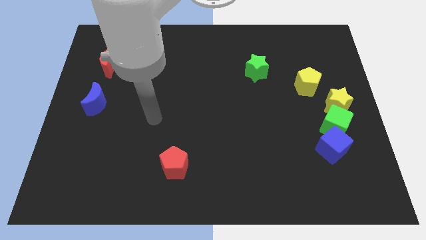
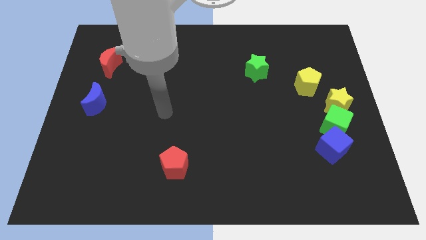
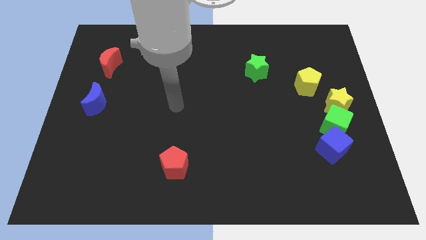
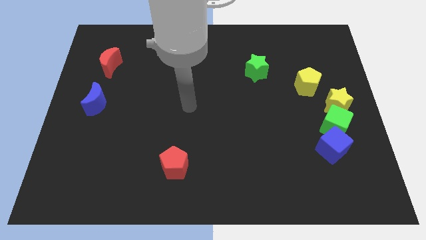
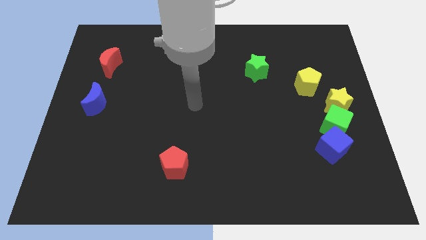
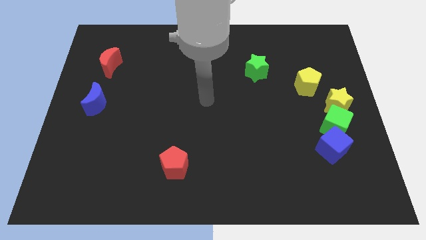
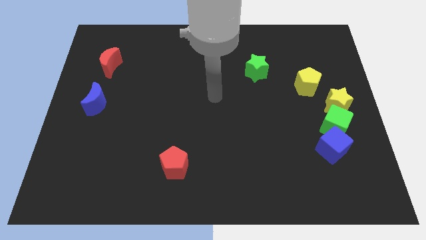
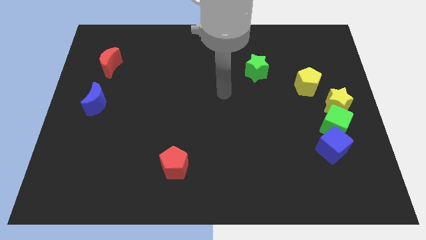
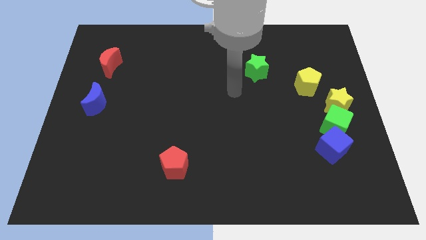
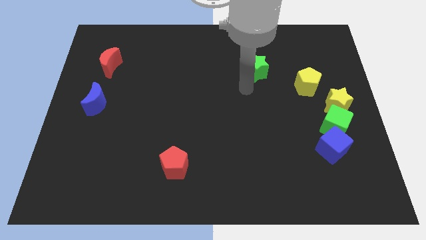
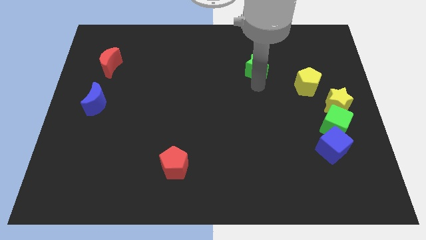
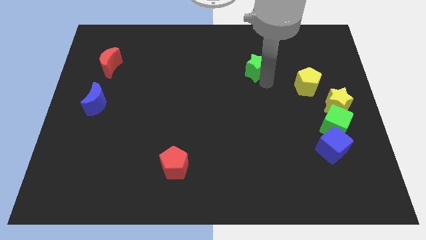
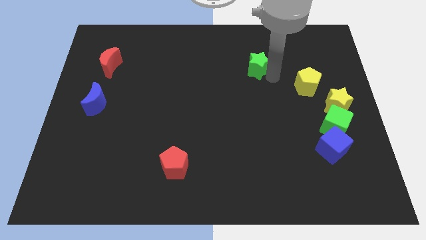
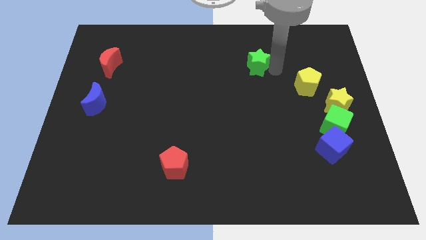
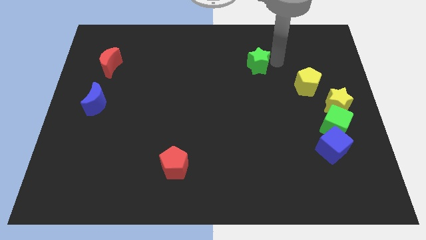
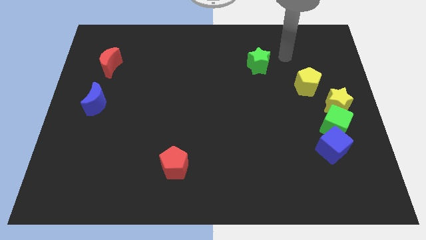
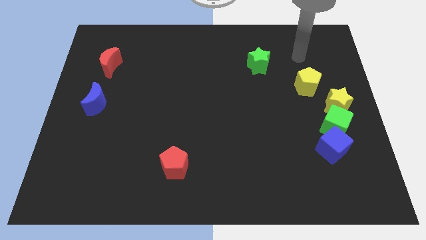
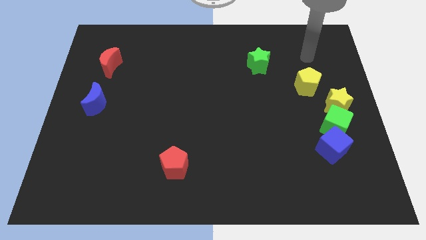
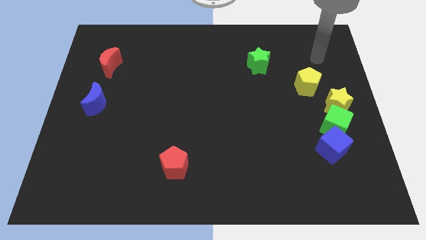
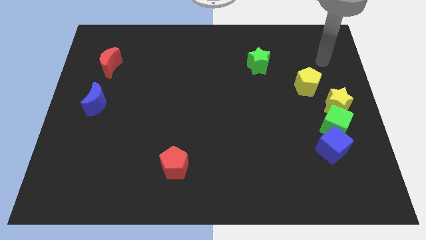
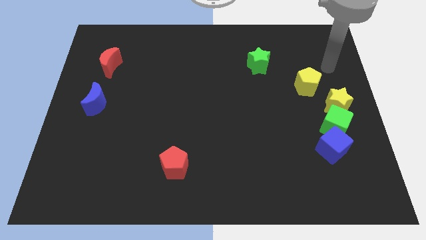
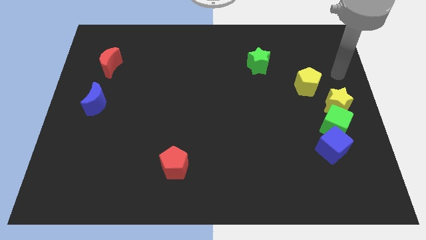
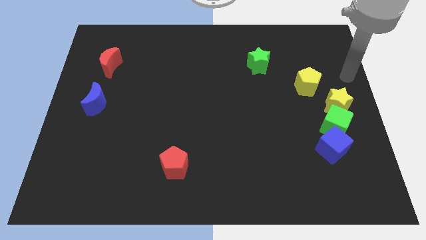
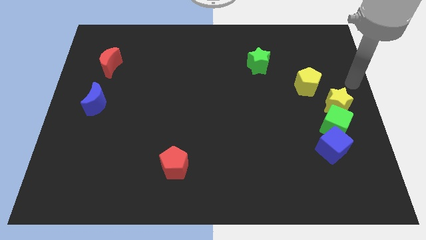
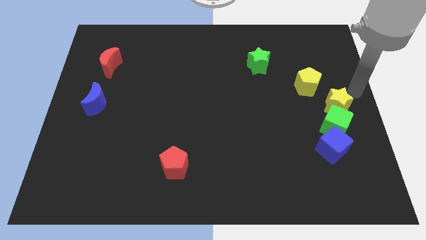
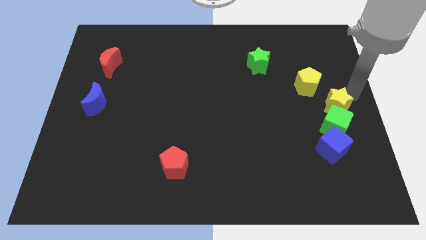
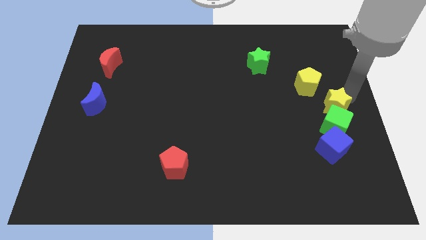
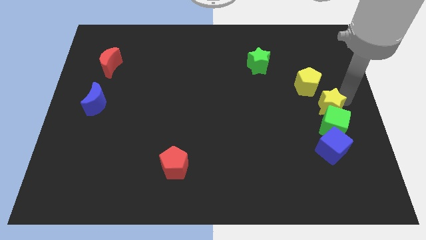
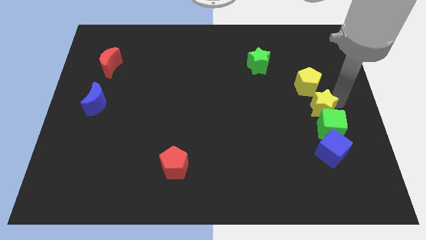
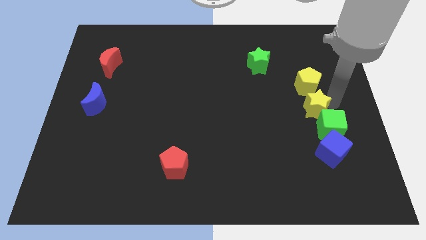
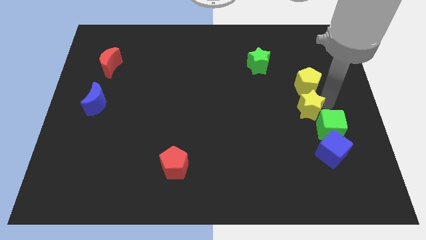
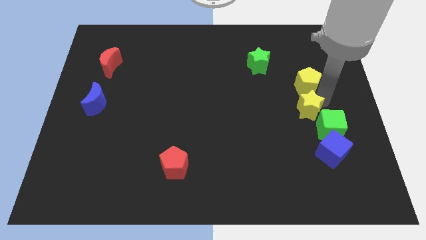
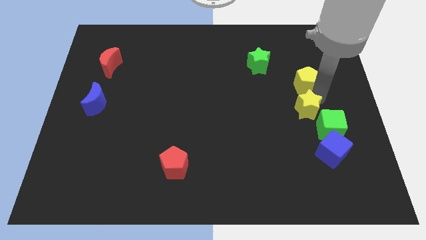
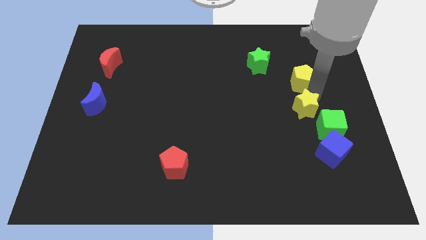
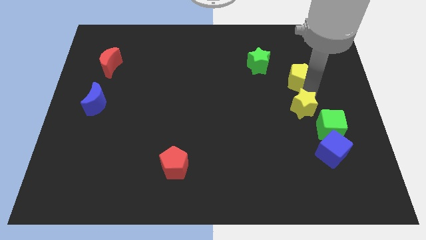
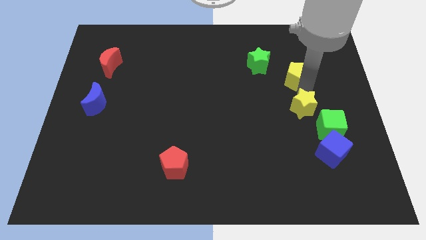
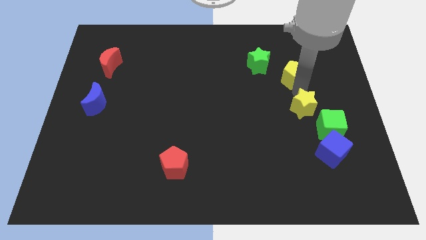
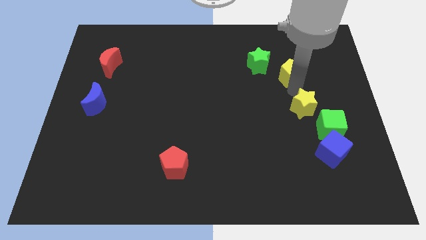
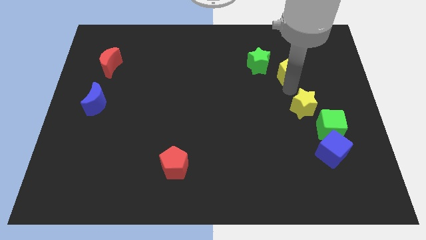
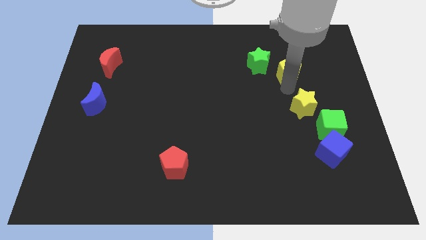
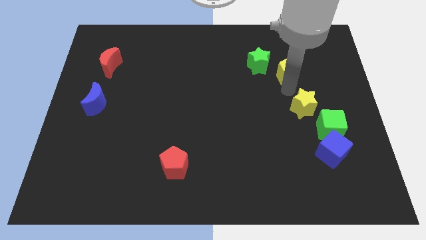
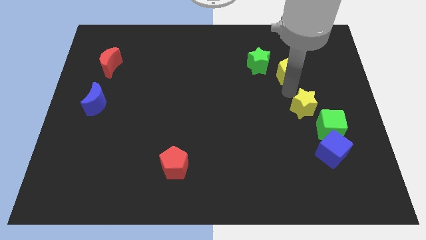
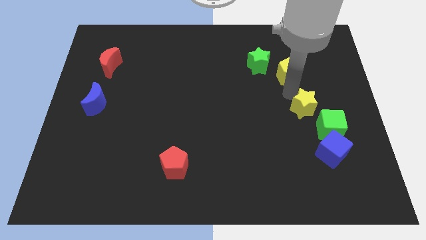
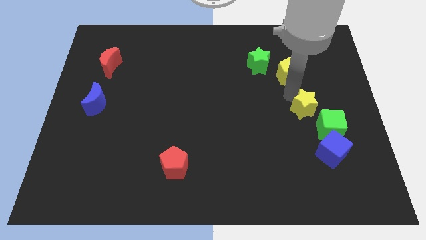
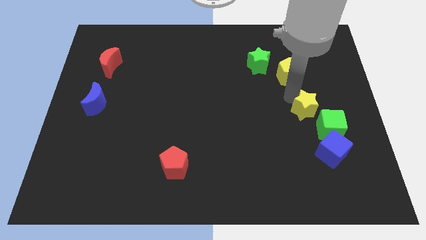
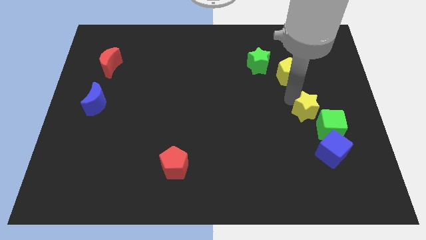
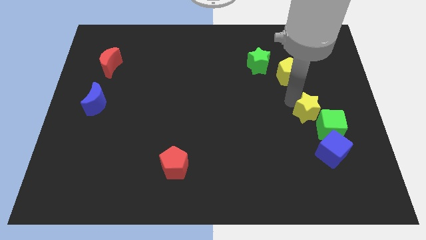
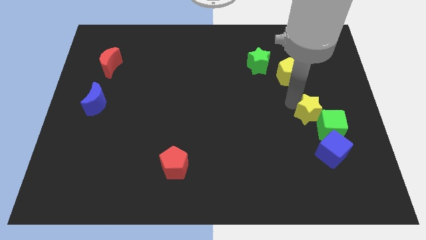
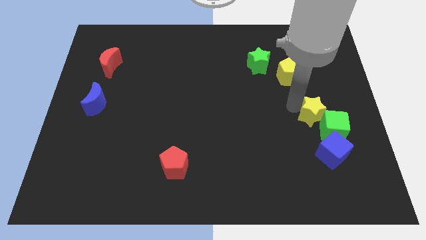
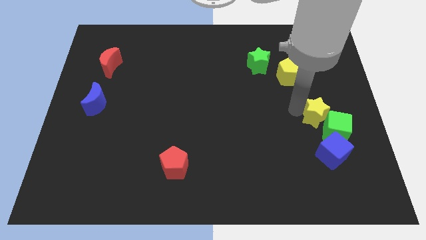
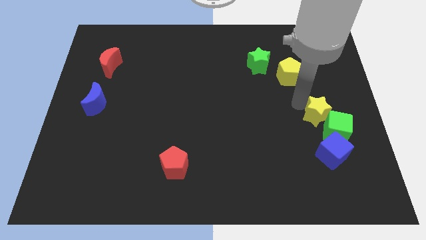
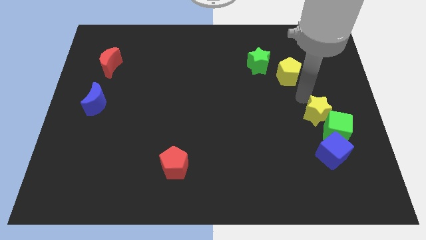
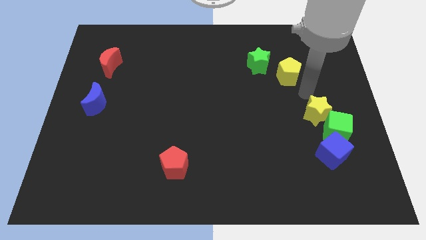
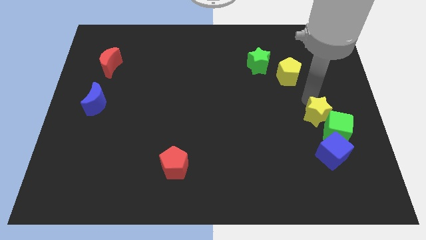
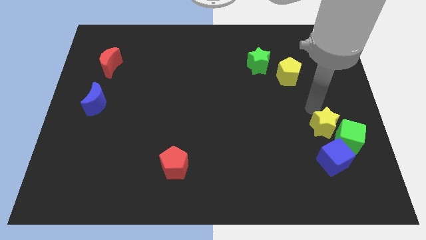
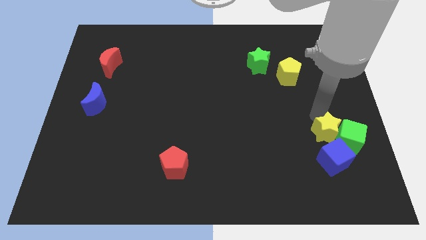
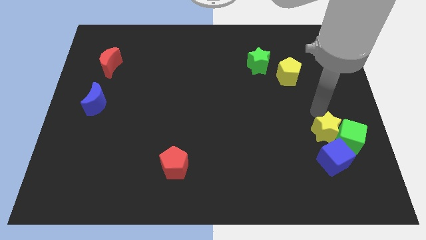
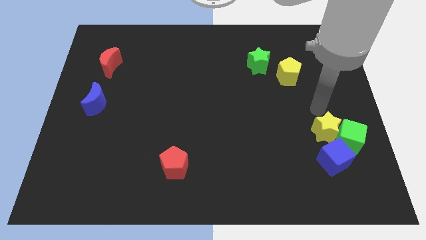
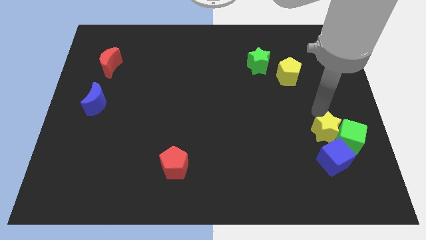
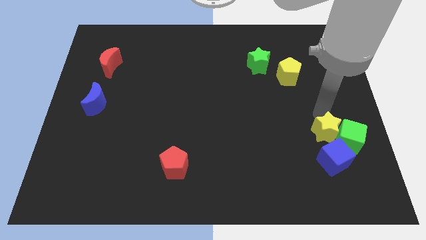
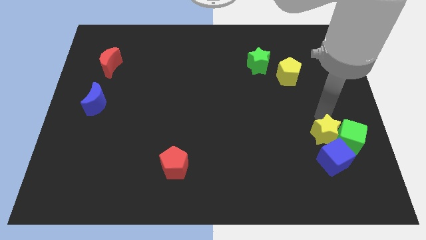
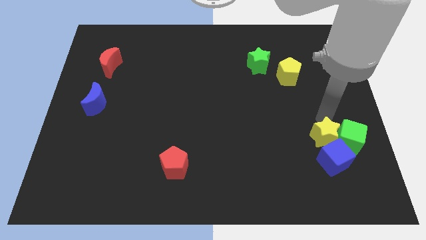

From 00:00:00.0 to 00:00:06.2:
slide the yellow star close to the blue cube

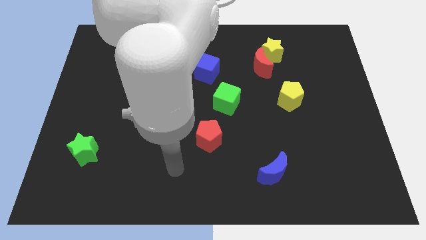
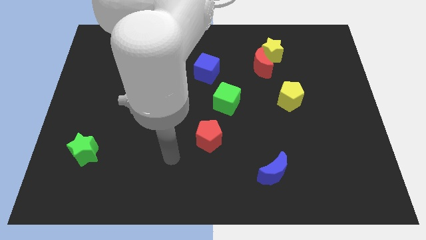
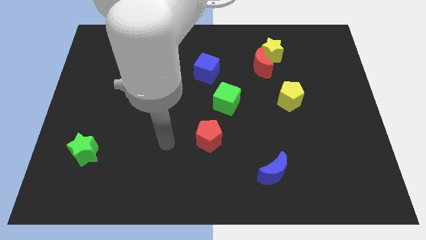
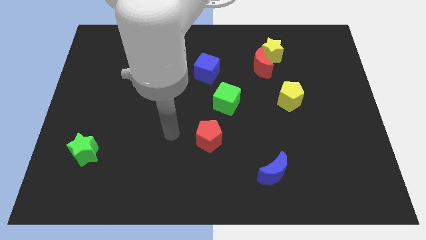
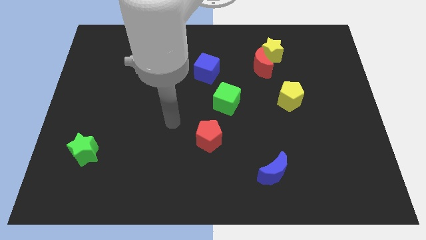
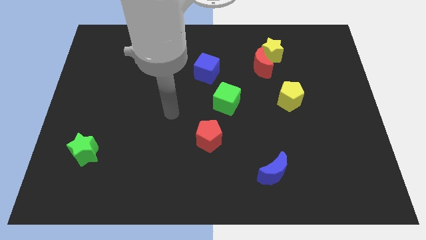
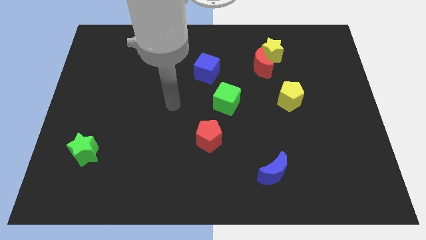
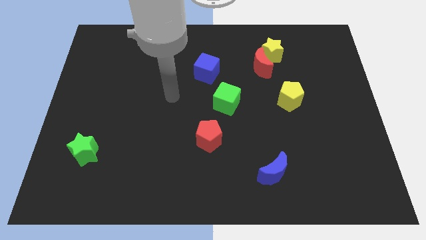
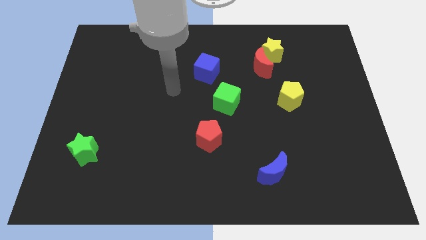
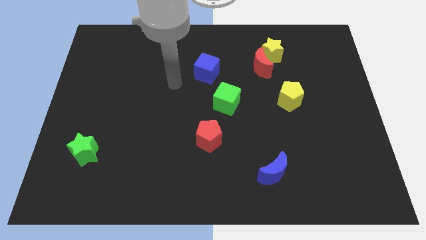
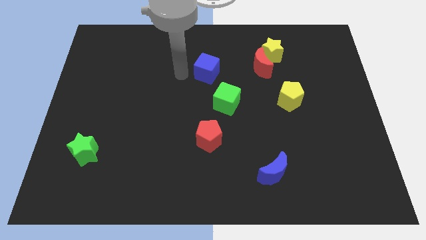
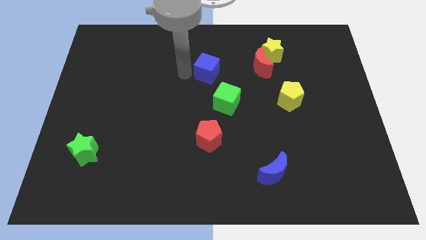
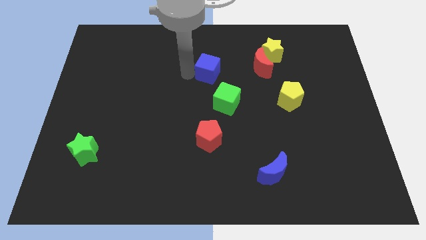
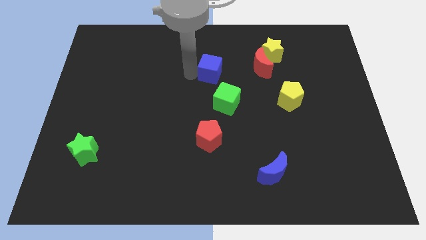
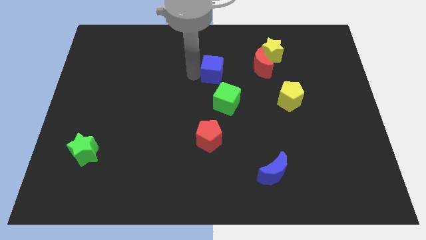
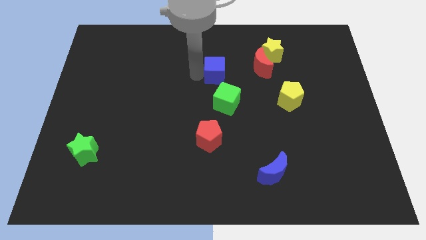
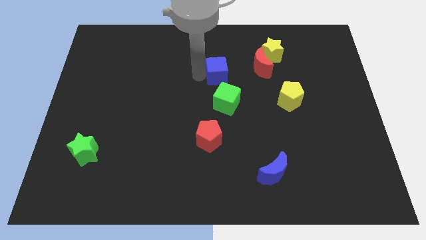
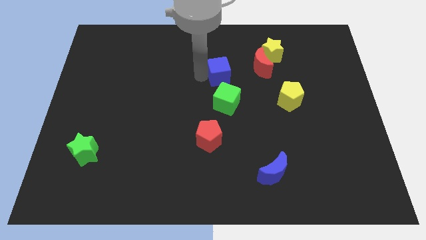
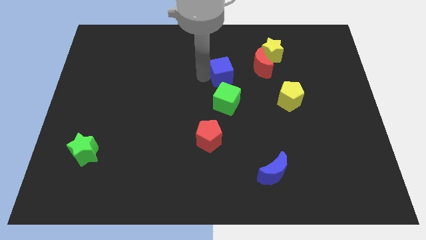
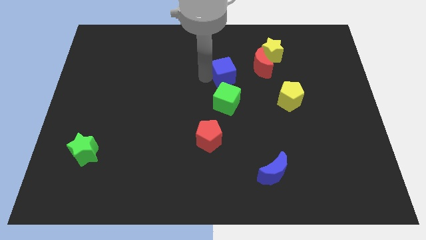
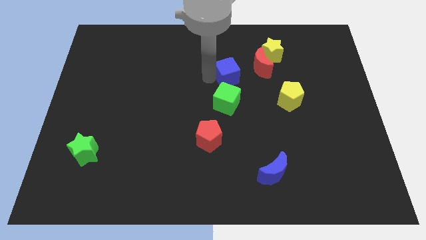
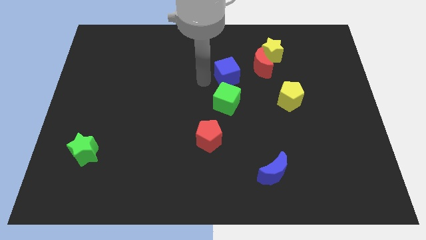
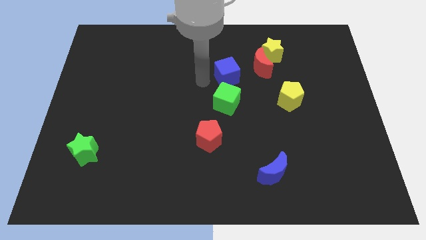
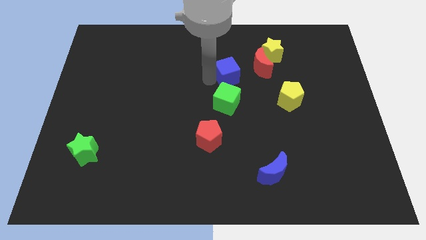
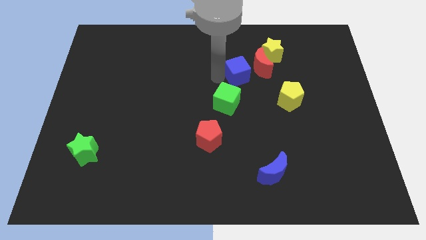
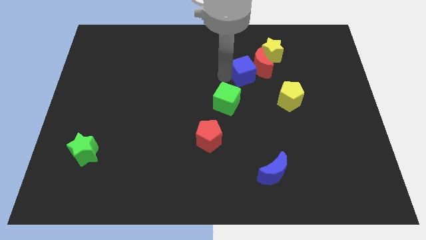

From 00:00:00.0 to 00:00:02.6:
slide the blue cube next to the red moon
